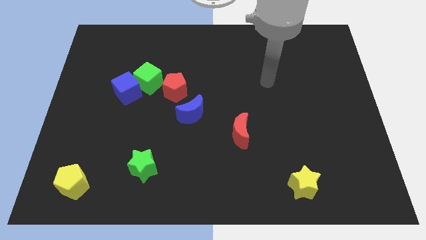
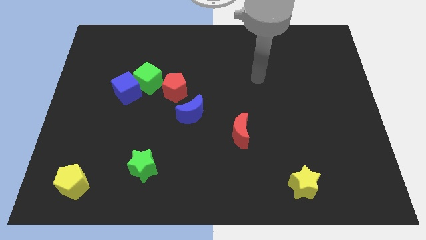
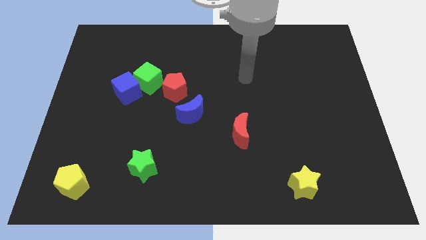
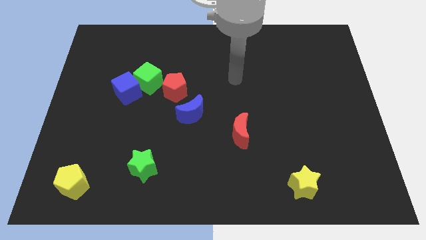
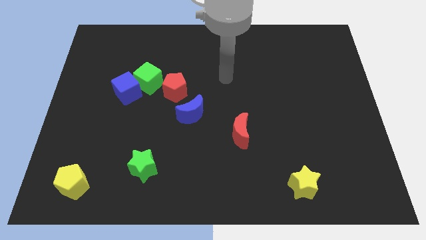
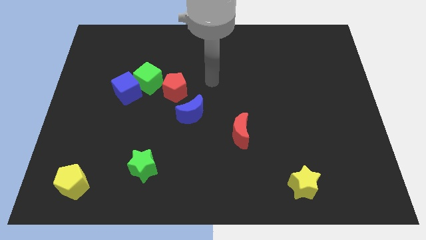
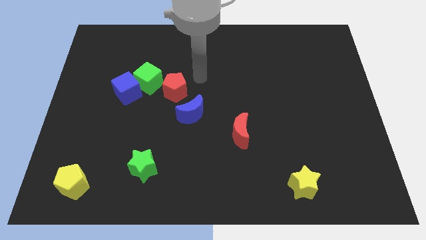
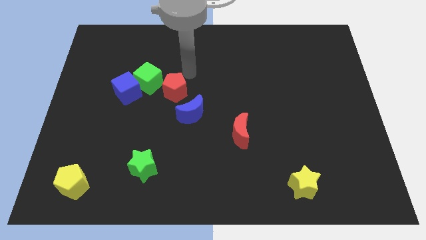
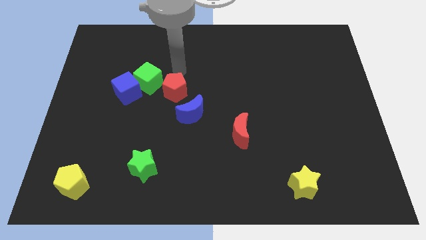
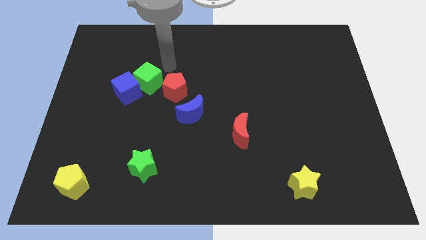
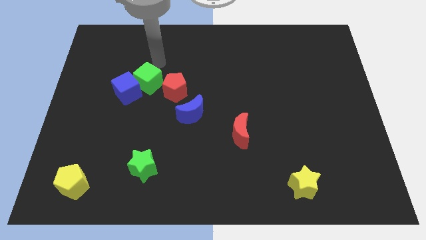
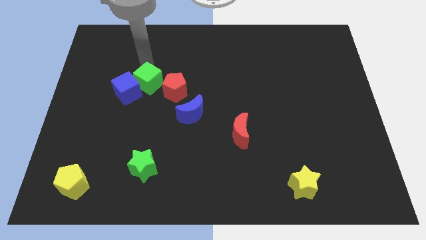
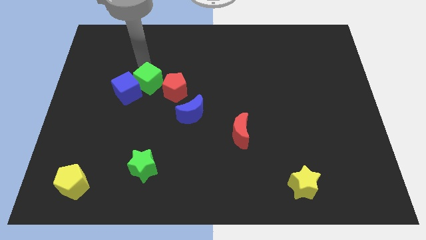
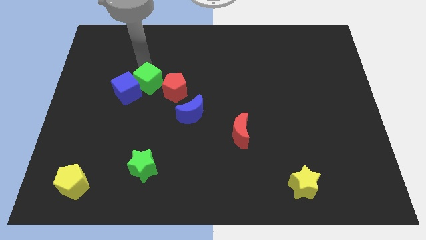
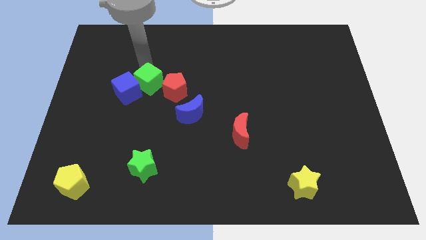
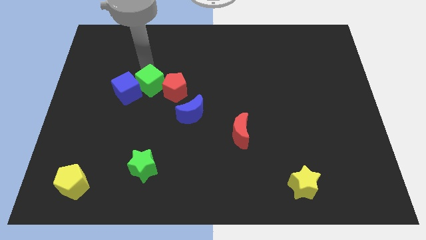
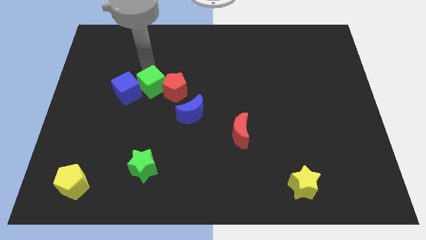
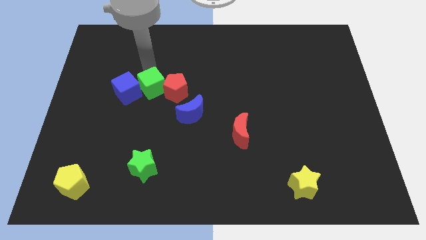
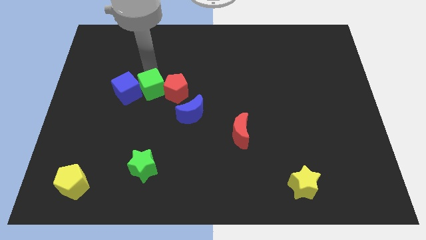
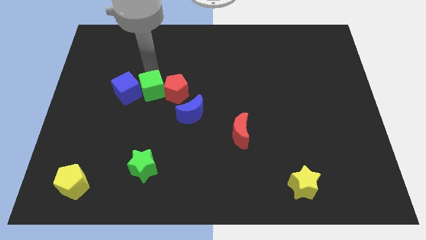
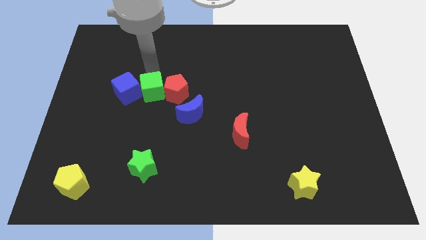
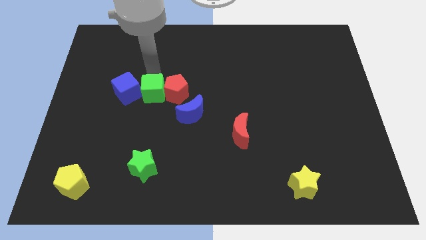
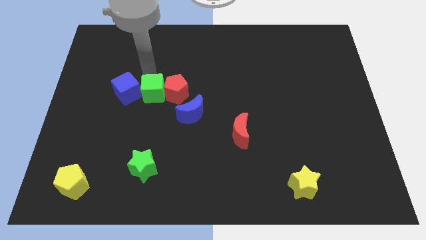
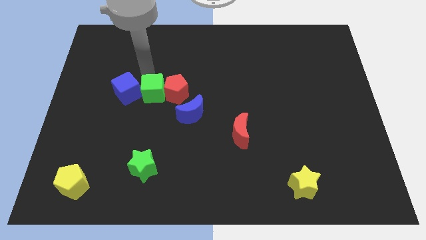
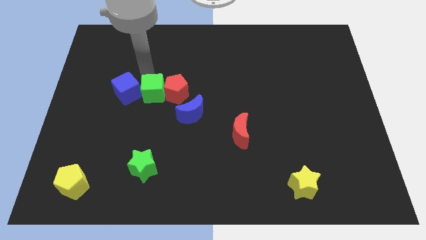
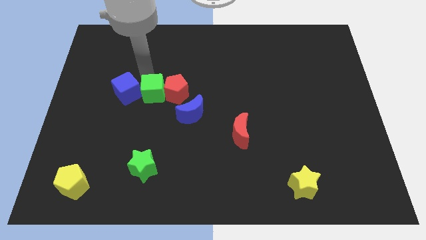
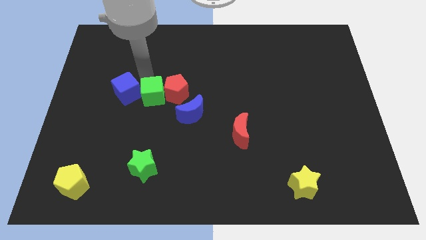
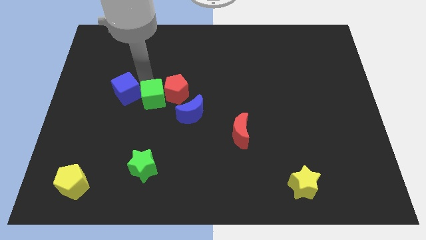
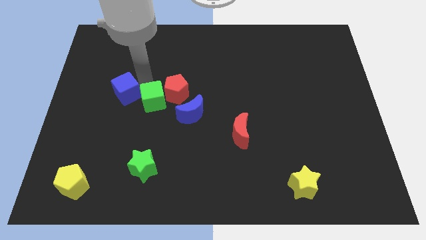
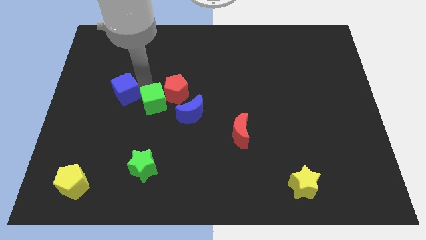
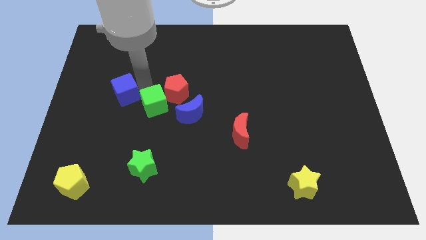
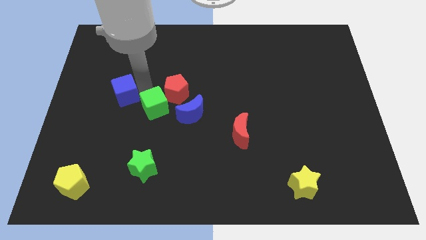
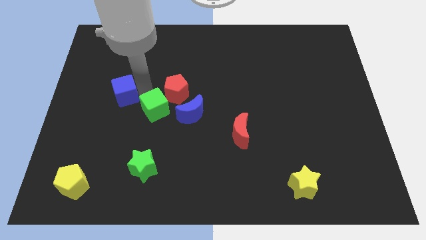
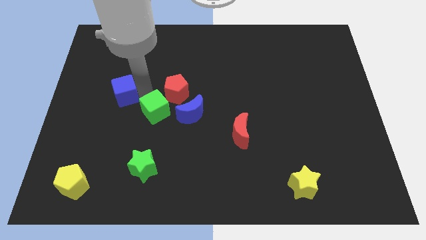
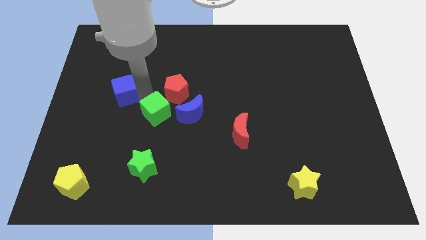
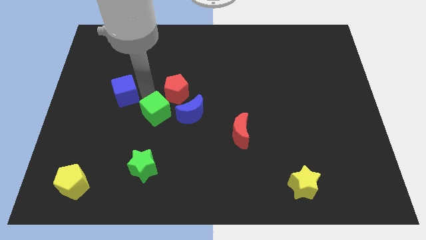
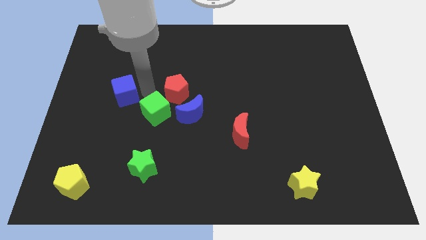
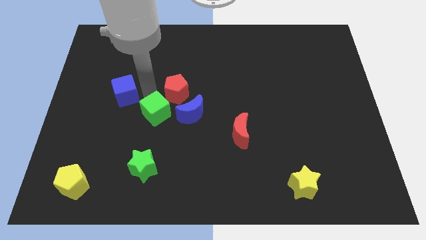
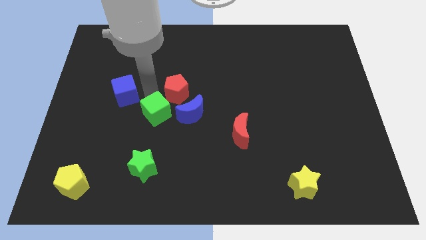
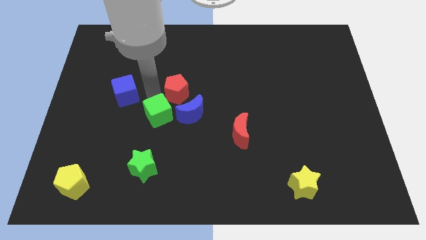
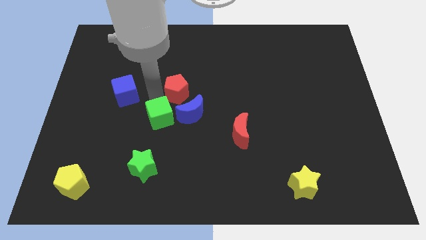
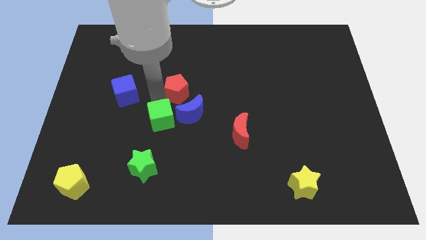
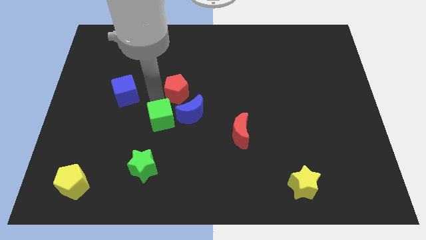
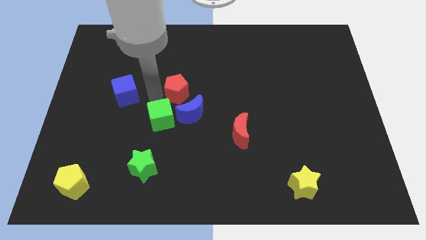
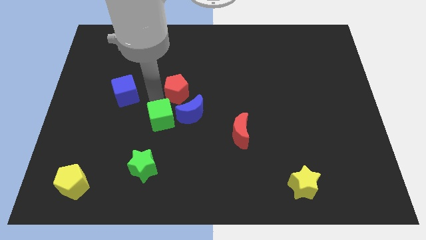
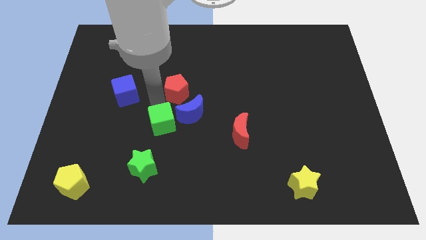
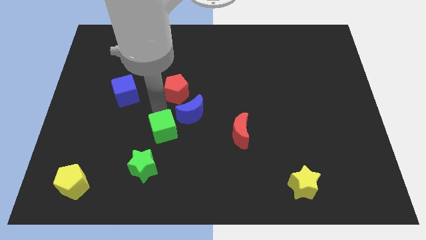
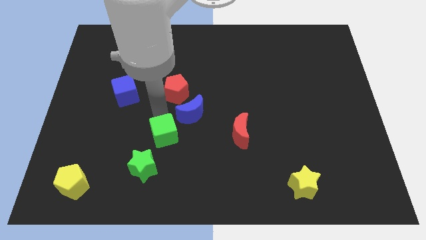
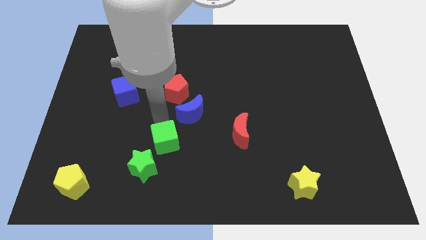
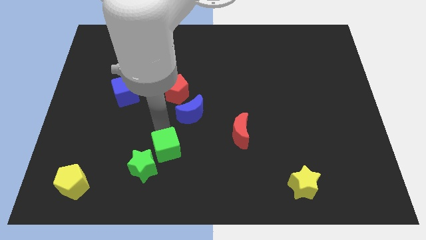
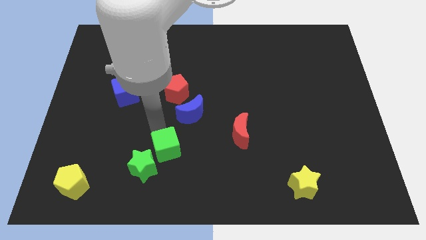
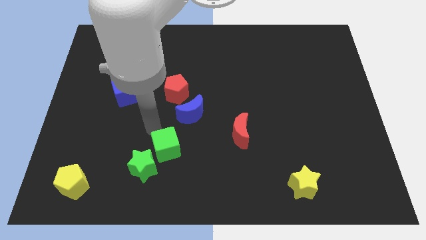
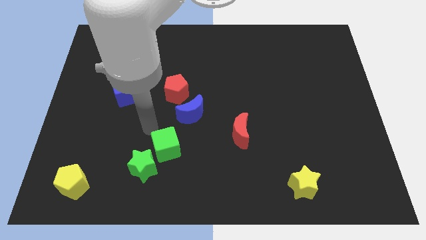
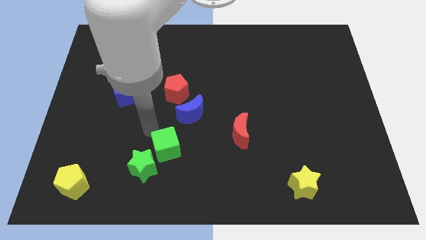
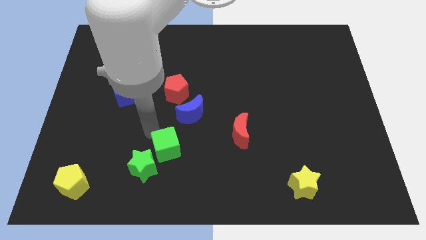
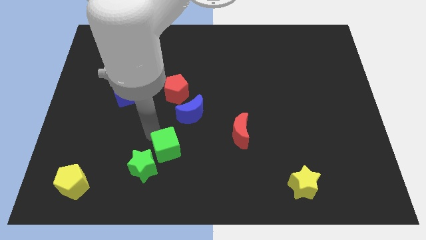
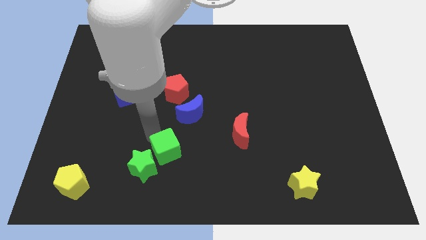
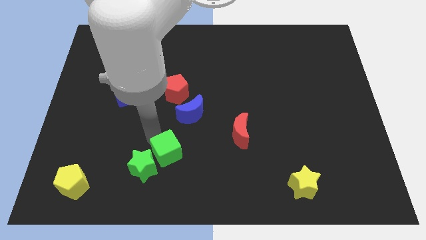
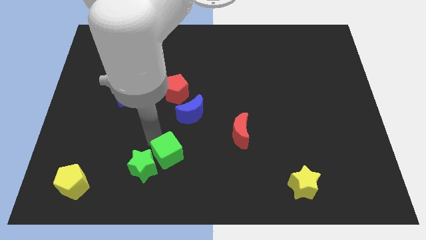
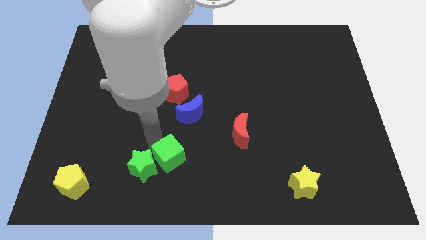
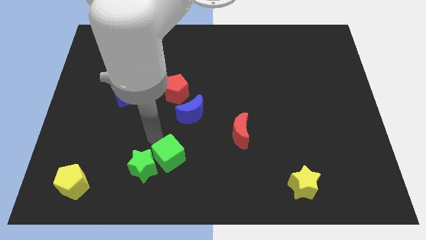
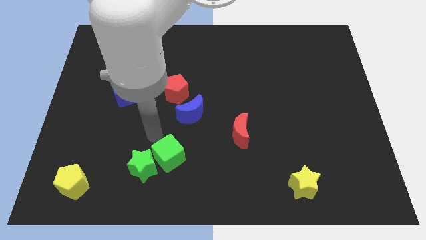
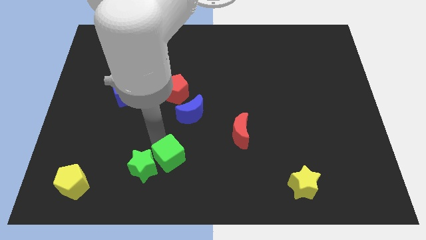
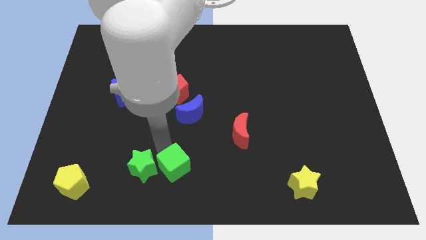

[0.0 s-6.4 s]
push the green cube to the bottom side

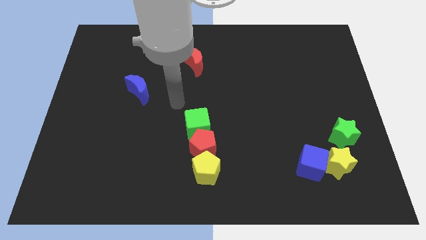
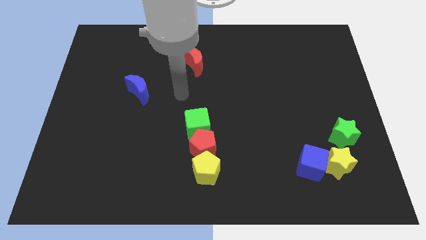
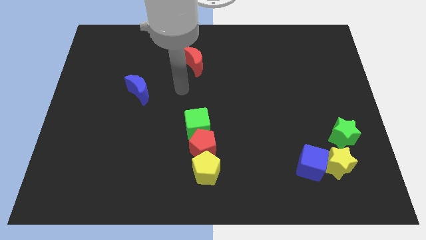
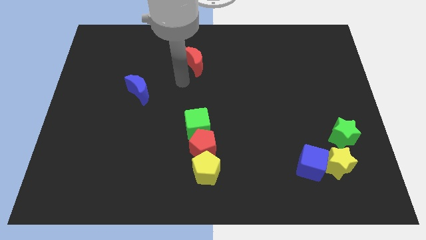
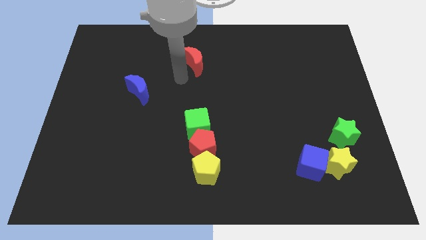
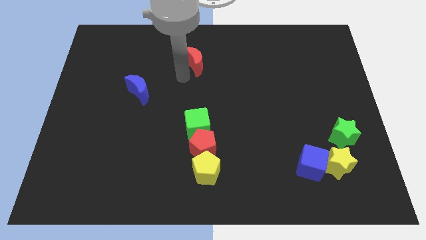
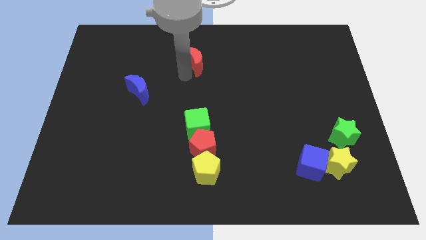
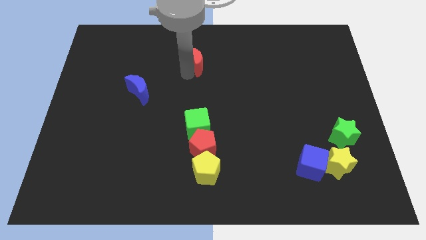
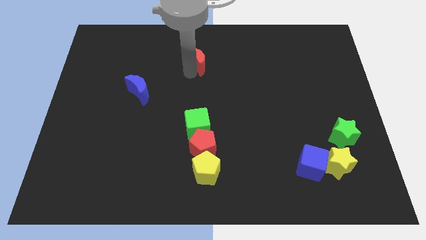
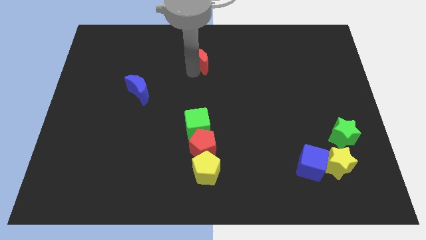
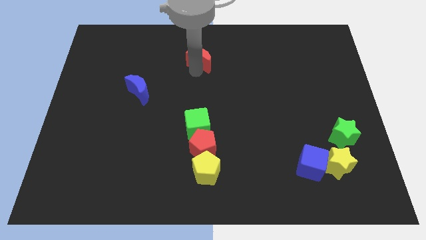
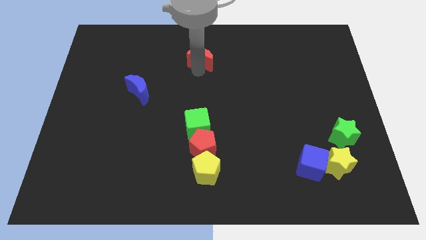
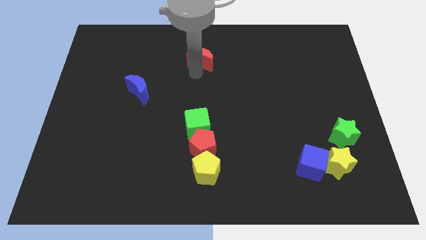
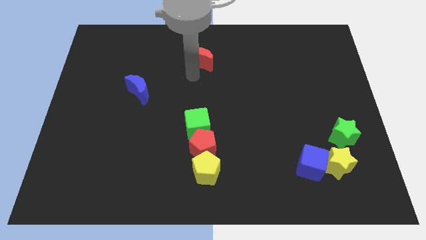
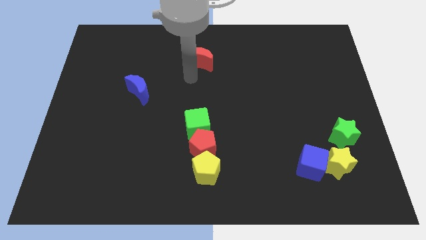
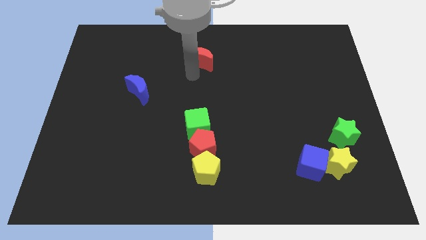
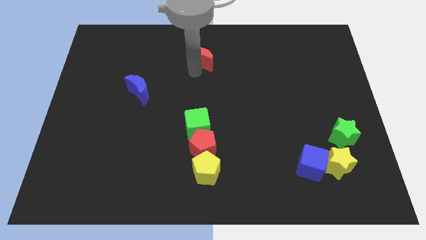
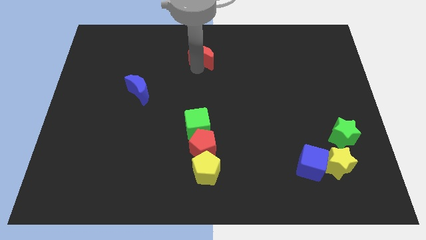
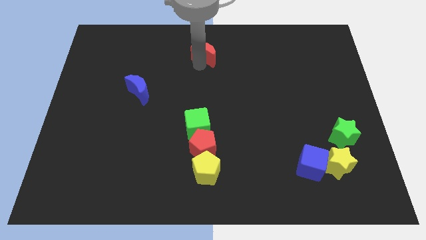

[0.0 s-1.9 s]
push the red moon to the top side
